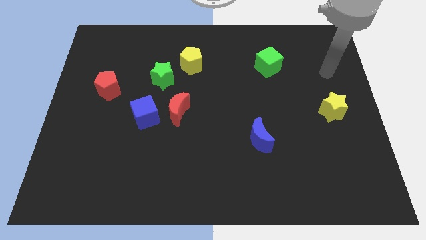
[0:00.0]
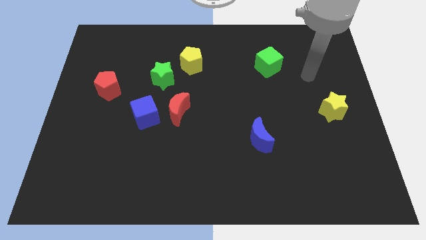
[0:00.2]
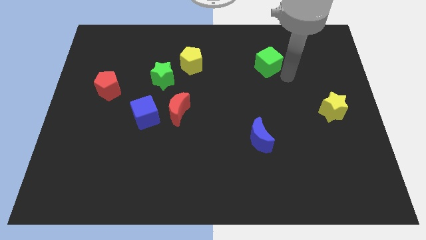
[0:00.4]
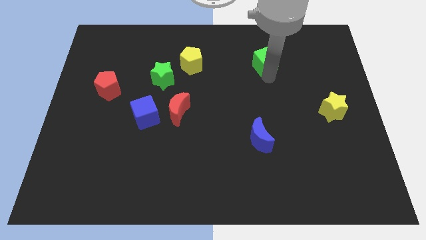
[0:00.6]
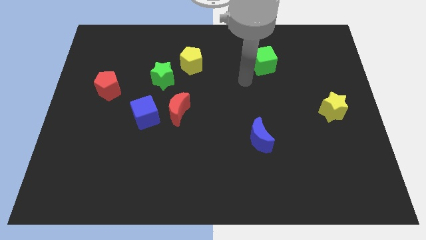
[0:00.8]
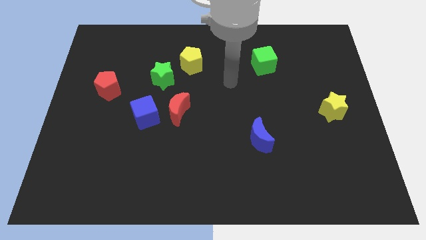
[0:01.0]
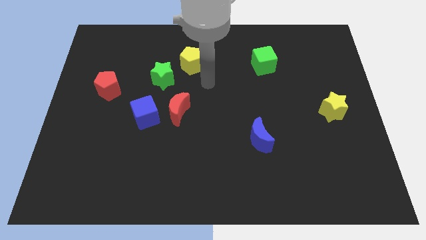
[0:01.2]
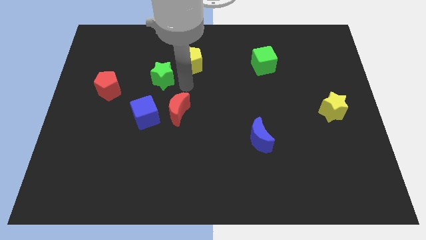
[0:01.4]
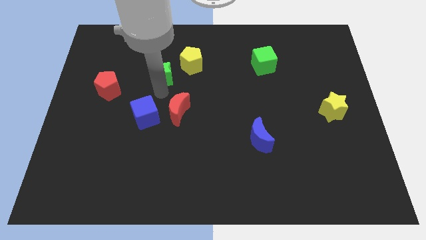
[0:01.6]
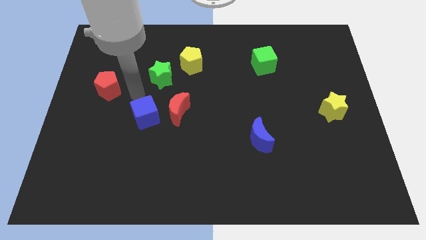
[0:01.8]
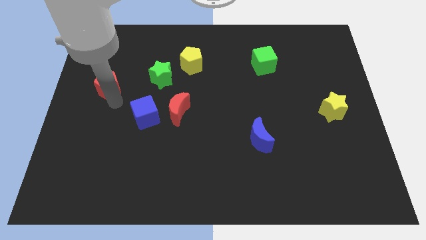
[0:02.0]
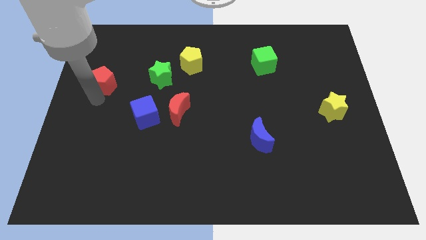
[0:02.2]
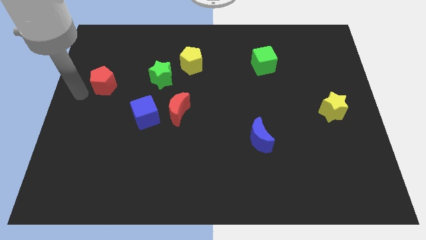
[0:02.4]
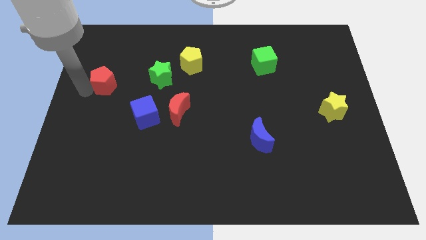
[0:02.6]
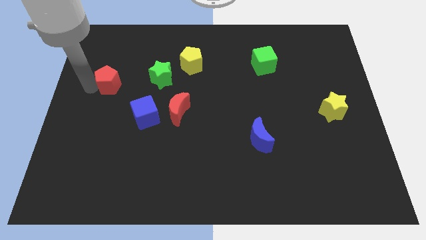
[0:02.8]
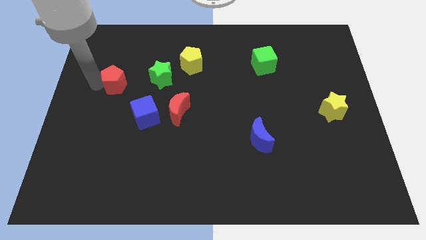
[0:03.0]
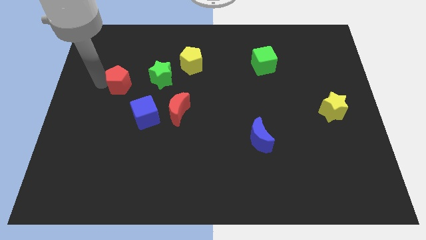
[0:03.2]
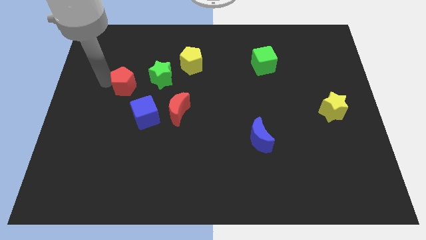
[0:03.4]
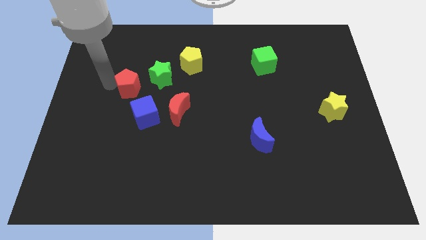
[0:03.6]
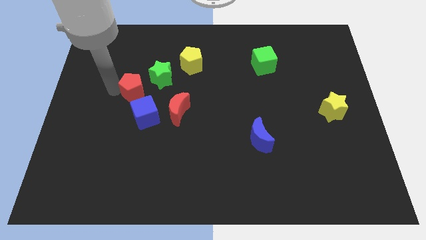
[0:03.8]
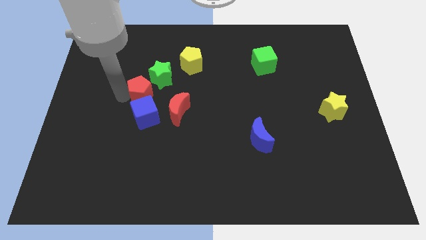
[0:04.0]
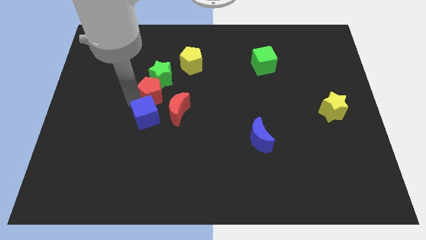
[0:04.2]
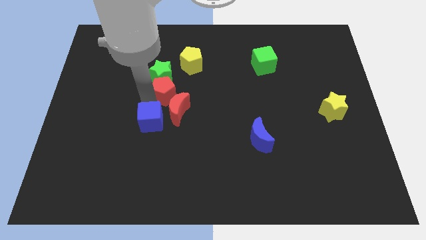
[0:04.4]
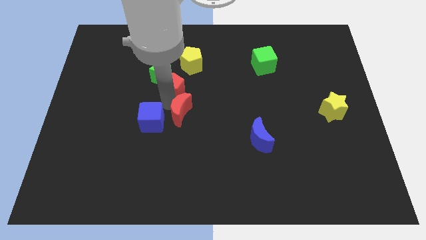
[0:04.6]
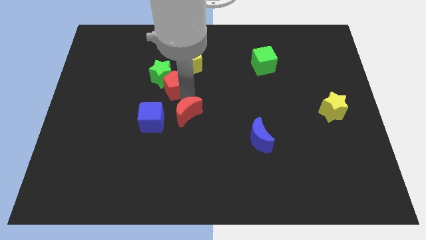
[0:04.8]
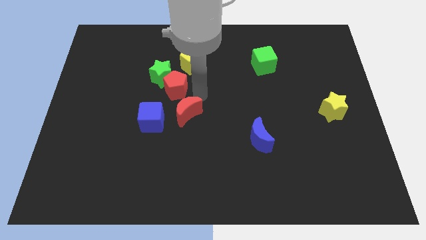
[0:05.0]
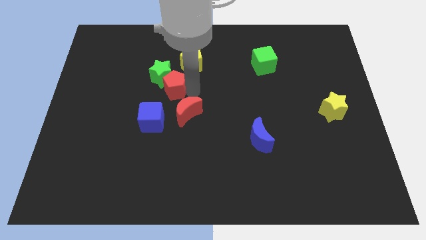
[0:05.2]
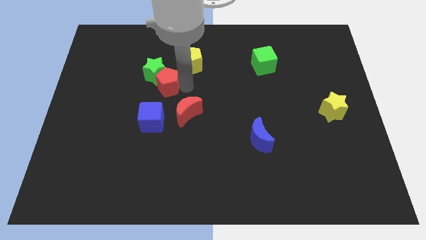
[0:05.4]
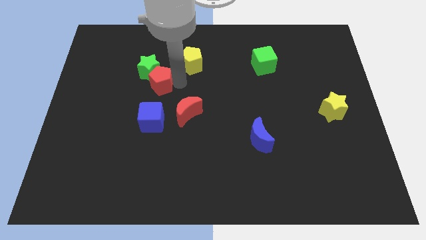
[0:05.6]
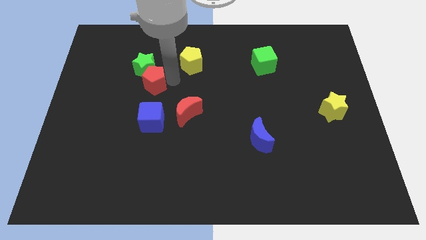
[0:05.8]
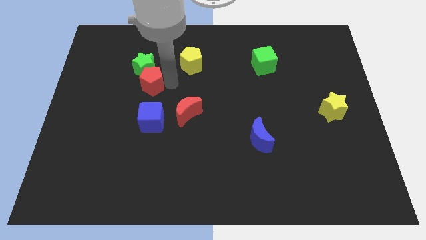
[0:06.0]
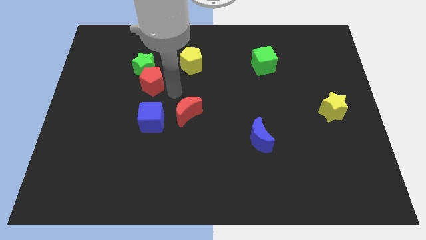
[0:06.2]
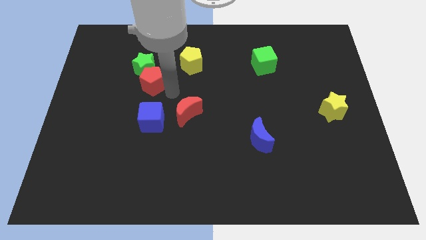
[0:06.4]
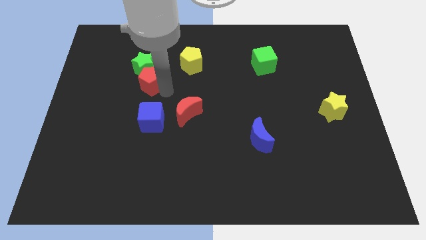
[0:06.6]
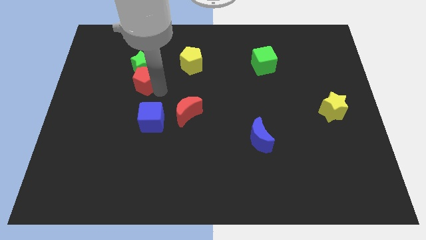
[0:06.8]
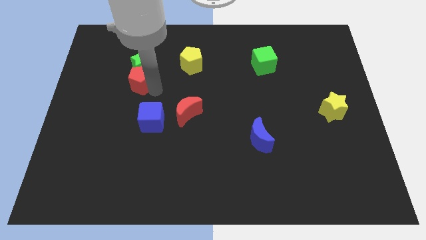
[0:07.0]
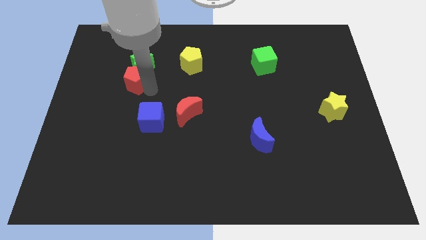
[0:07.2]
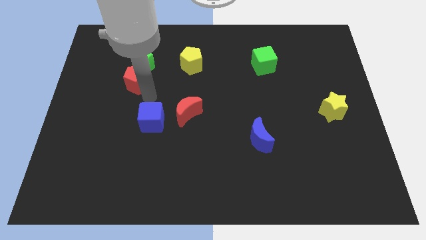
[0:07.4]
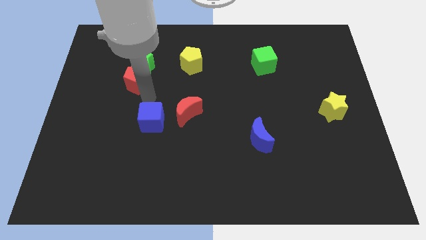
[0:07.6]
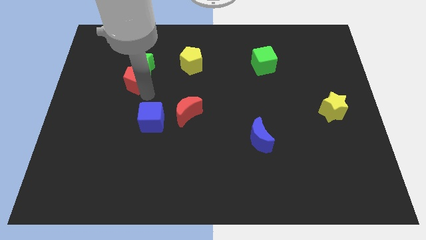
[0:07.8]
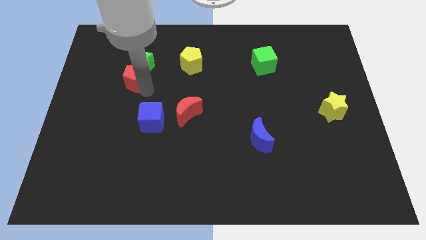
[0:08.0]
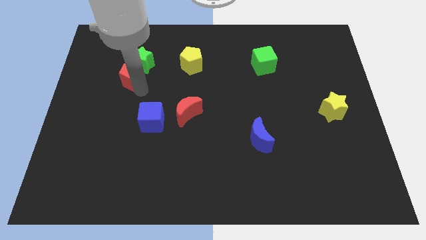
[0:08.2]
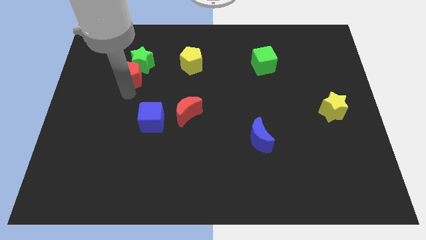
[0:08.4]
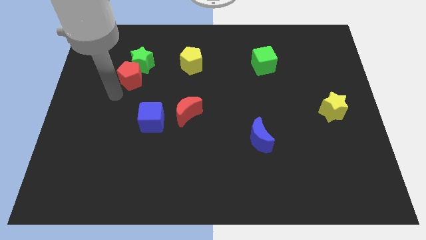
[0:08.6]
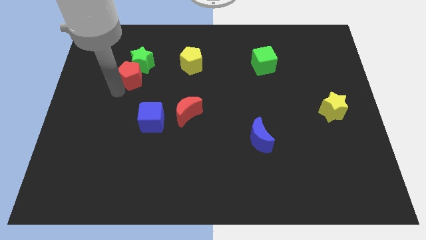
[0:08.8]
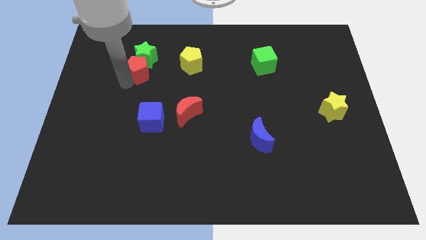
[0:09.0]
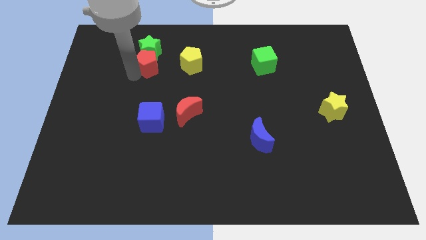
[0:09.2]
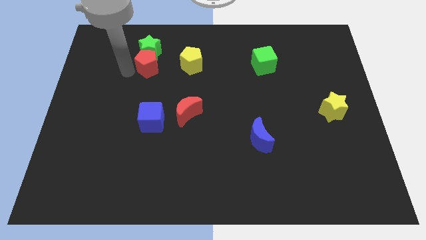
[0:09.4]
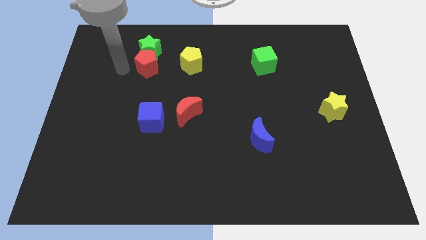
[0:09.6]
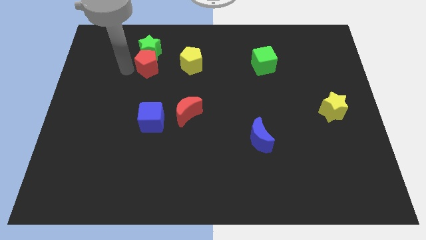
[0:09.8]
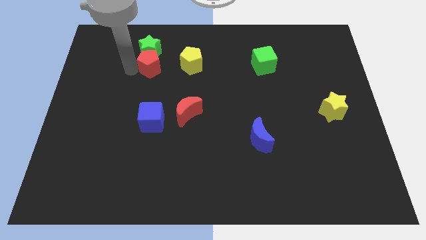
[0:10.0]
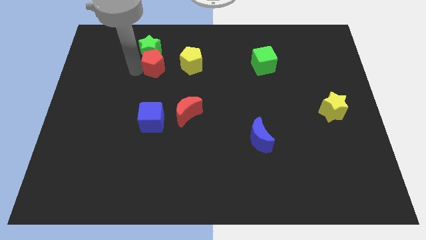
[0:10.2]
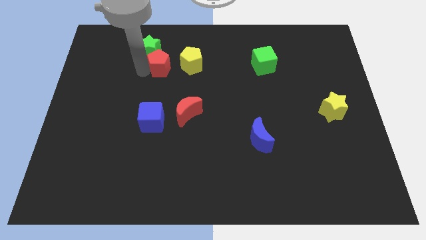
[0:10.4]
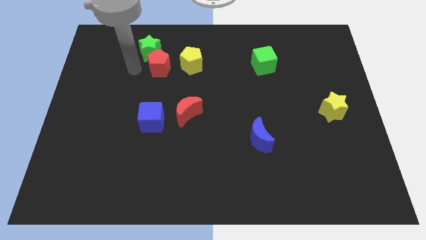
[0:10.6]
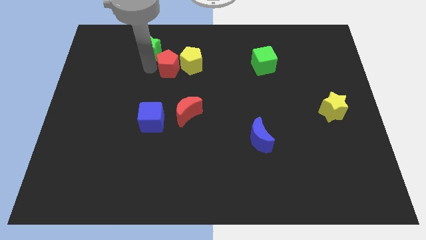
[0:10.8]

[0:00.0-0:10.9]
push the red pentagon close to the yellow pentagon

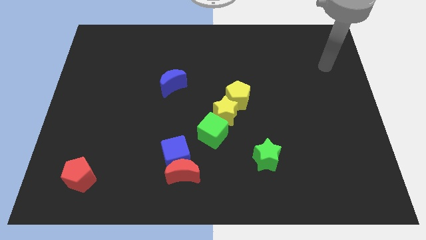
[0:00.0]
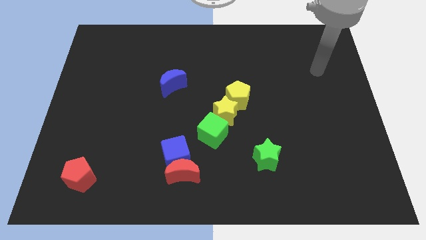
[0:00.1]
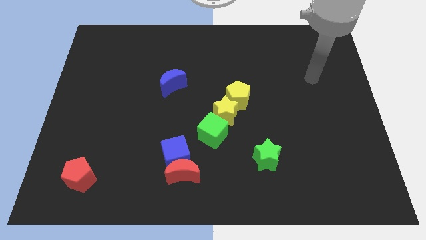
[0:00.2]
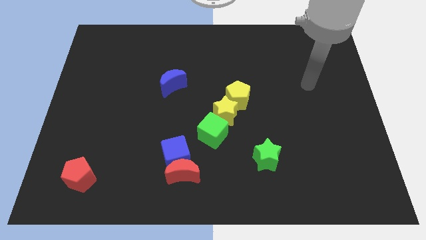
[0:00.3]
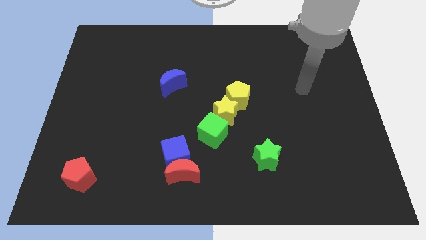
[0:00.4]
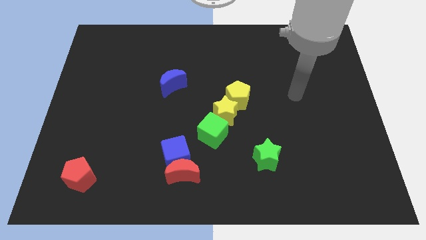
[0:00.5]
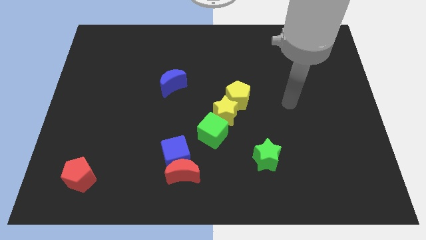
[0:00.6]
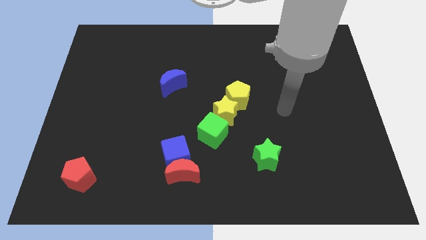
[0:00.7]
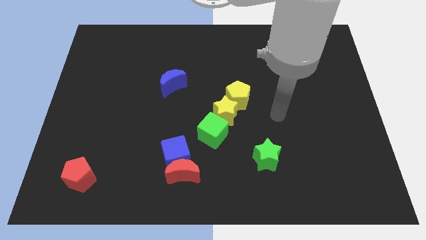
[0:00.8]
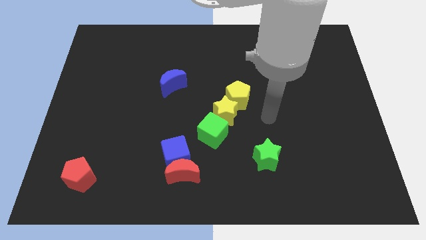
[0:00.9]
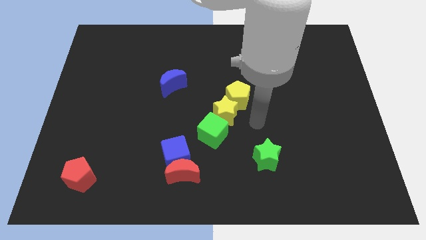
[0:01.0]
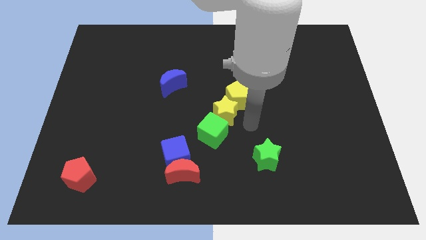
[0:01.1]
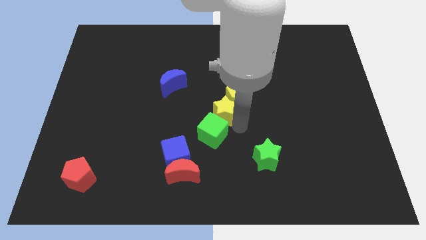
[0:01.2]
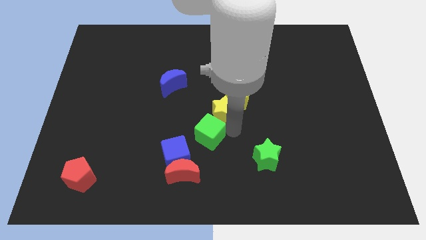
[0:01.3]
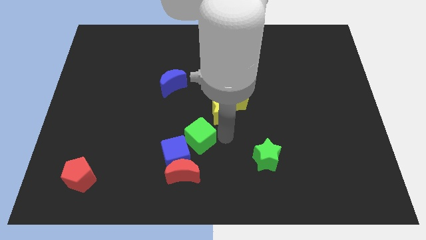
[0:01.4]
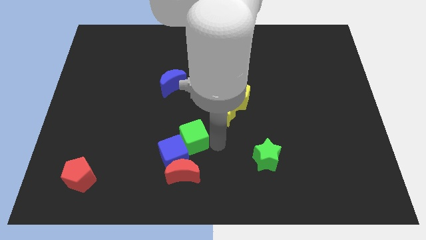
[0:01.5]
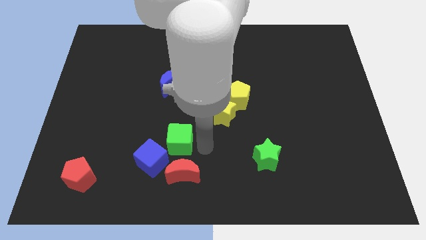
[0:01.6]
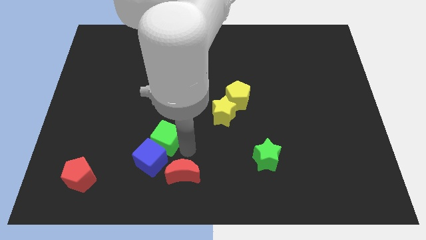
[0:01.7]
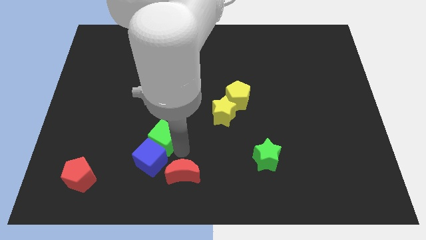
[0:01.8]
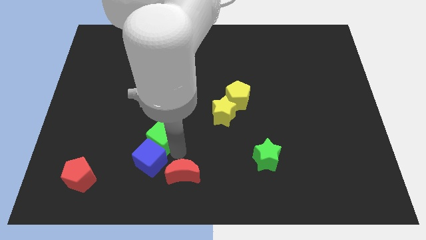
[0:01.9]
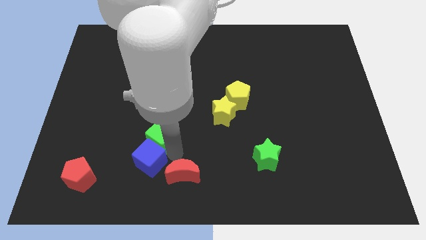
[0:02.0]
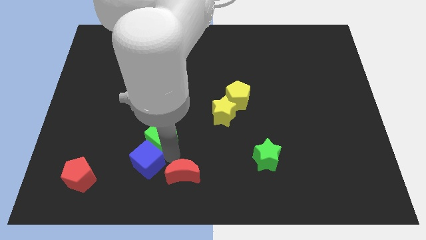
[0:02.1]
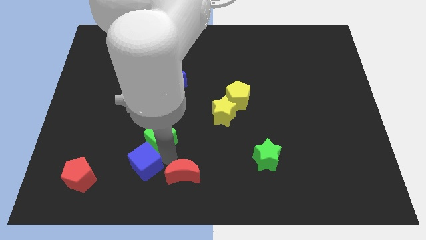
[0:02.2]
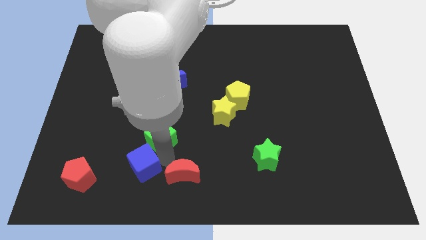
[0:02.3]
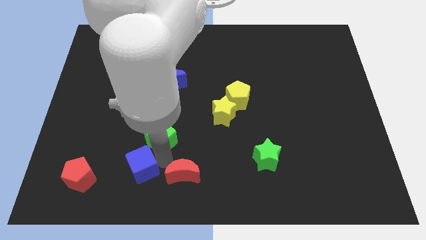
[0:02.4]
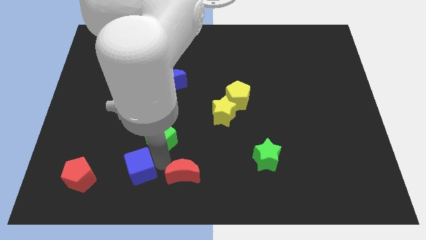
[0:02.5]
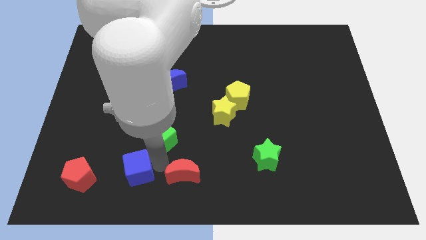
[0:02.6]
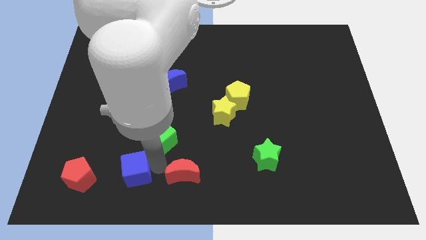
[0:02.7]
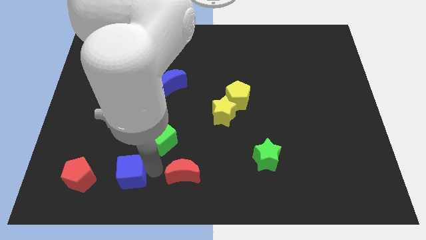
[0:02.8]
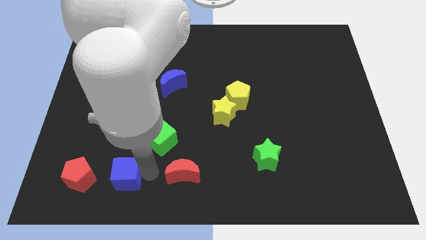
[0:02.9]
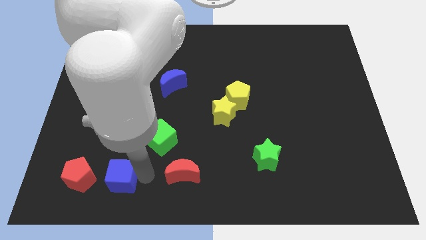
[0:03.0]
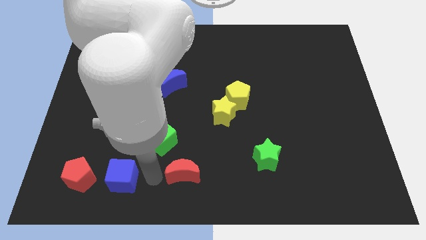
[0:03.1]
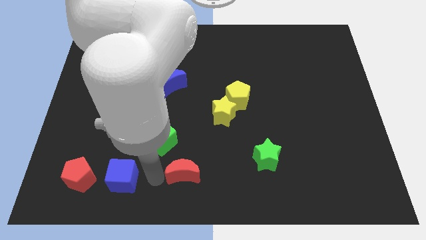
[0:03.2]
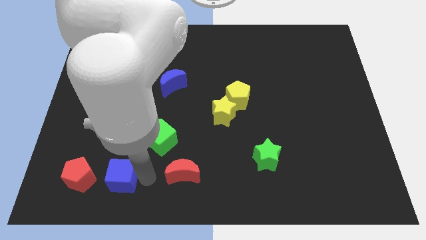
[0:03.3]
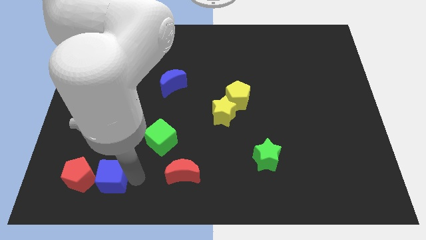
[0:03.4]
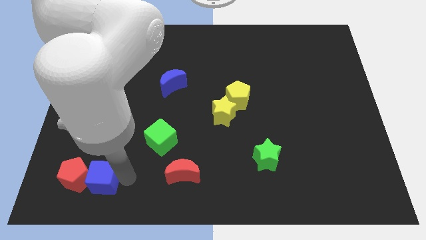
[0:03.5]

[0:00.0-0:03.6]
put the blue cube towards the red pentagon
